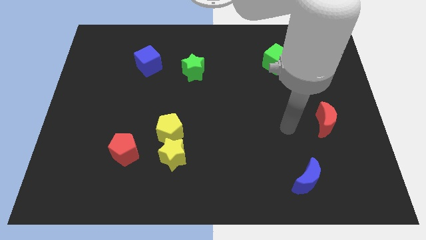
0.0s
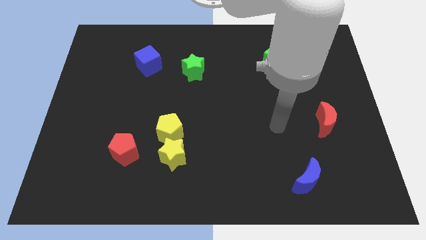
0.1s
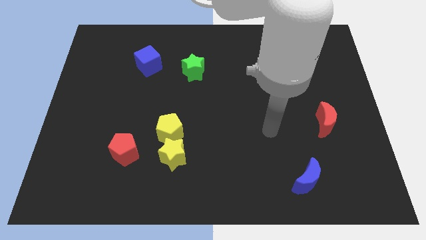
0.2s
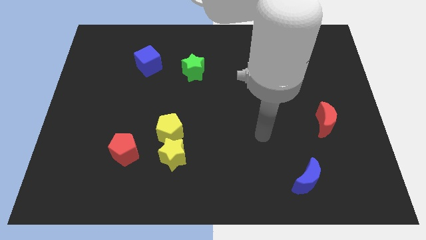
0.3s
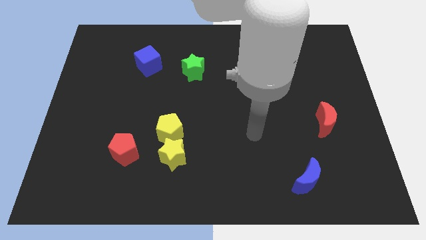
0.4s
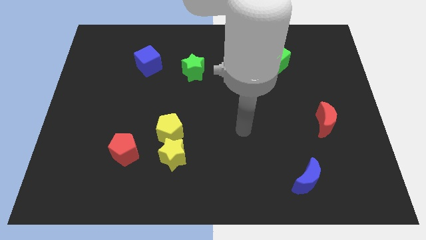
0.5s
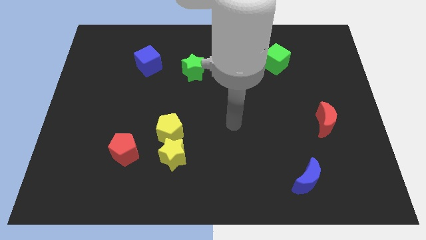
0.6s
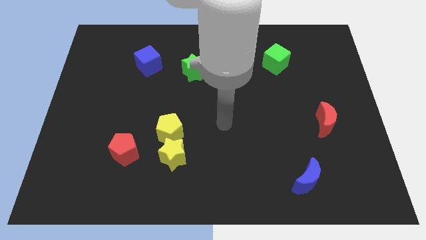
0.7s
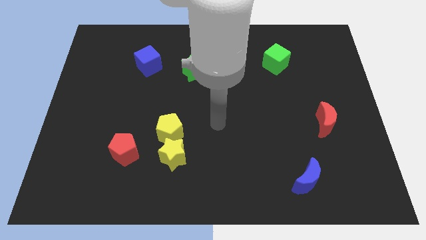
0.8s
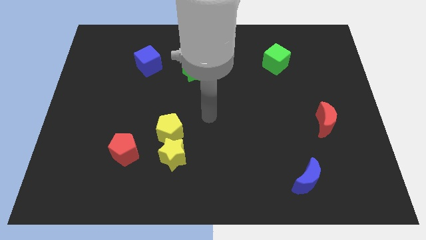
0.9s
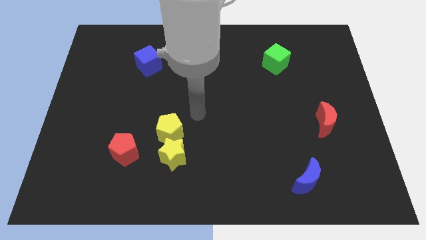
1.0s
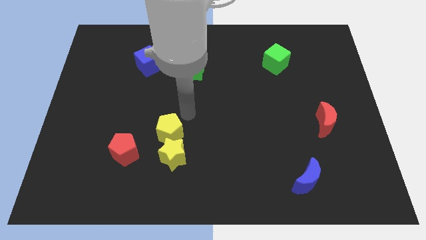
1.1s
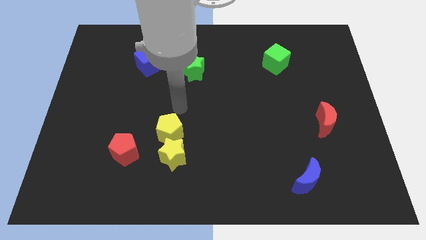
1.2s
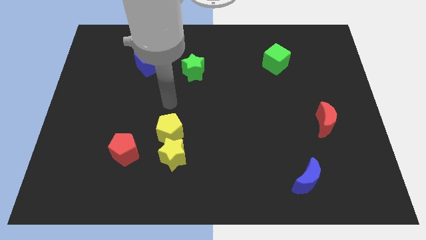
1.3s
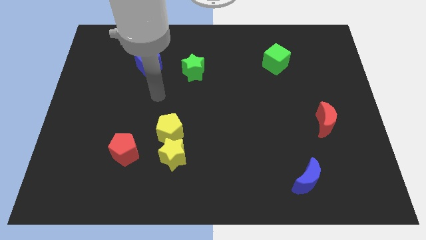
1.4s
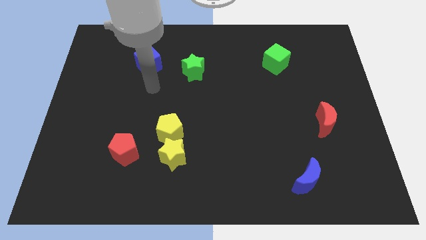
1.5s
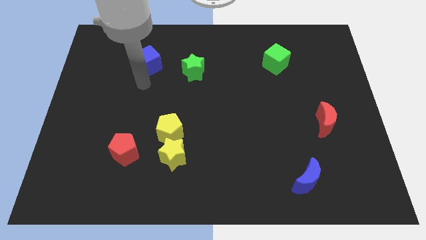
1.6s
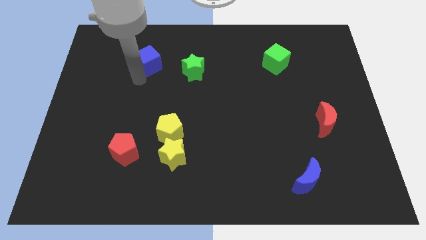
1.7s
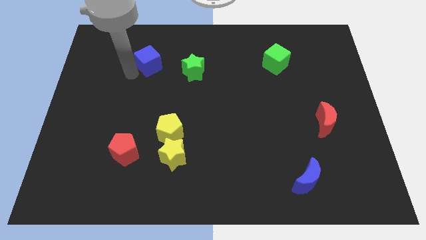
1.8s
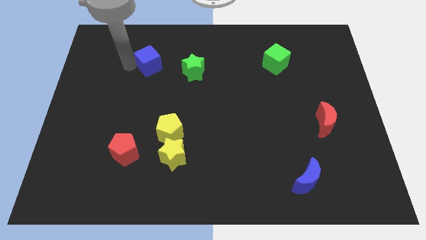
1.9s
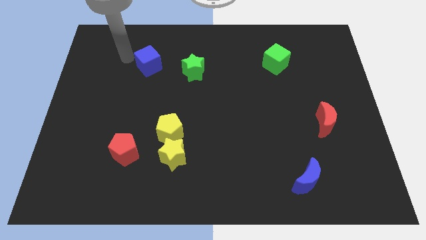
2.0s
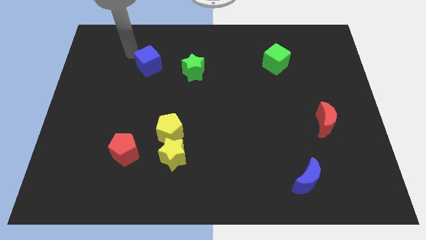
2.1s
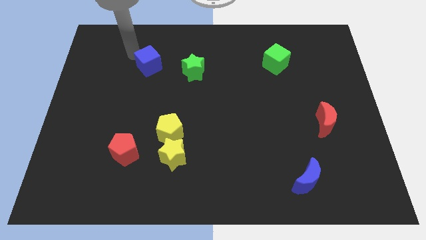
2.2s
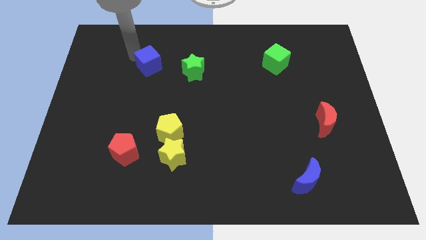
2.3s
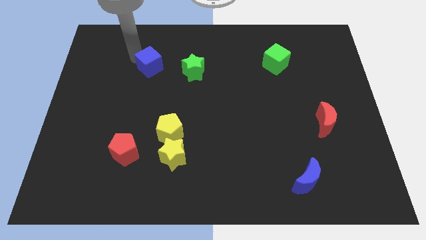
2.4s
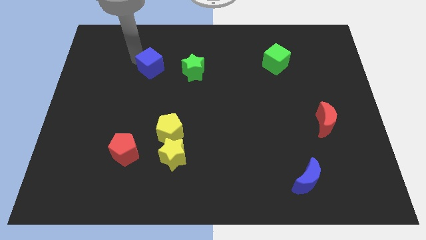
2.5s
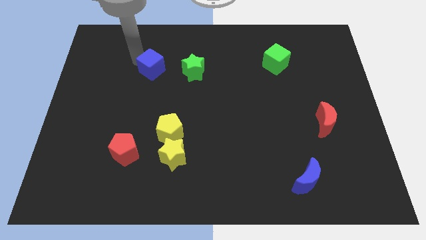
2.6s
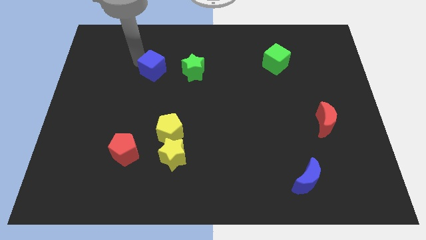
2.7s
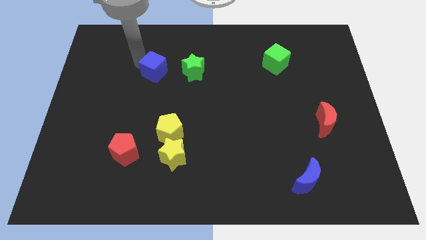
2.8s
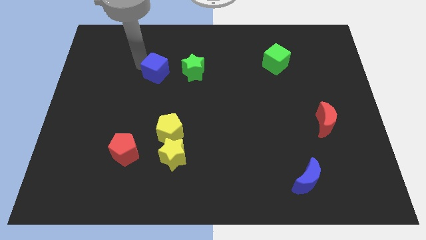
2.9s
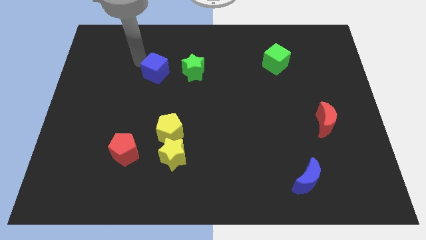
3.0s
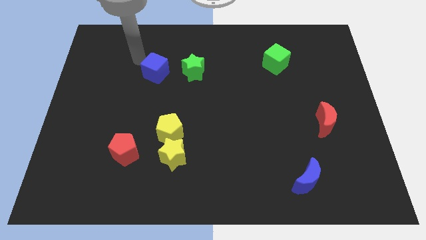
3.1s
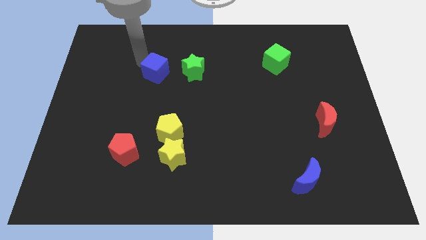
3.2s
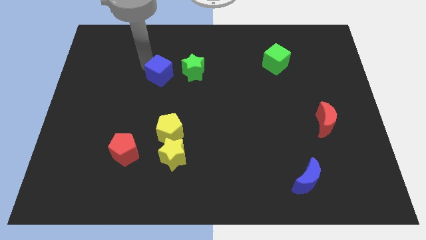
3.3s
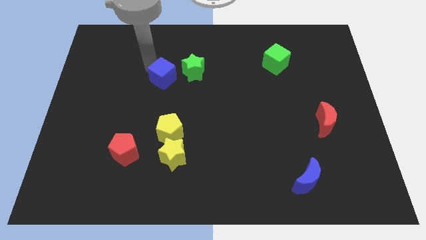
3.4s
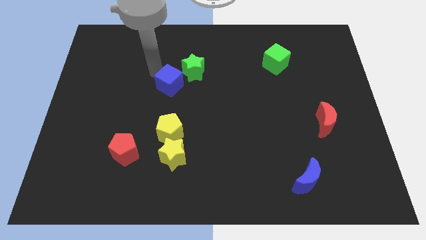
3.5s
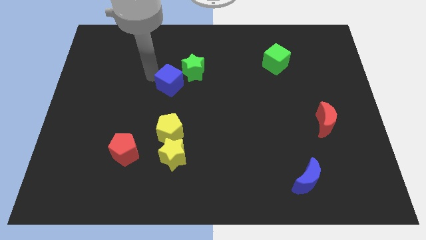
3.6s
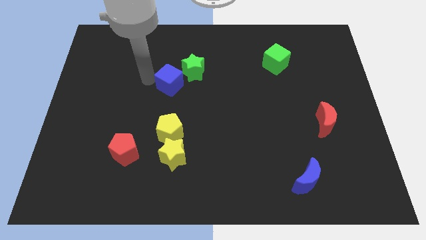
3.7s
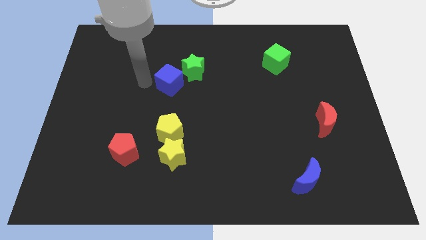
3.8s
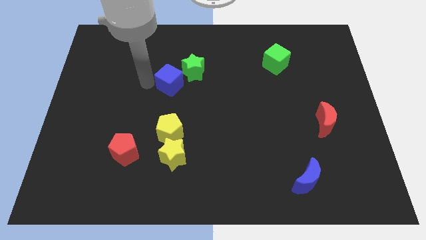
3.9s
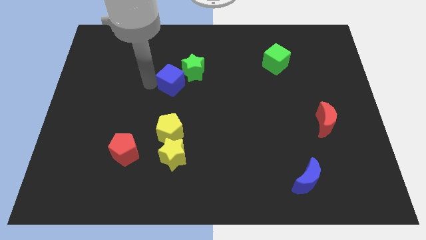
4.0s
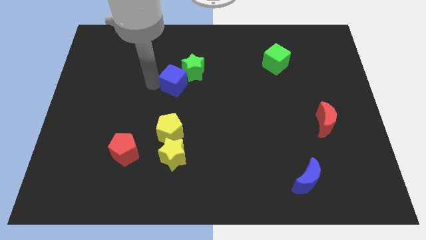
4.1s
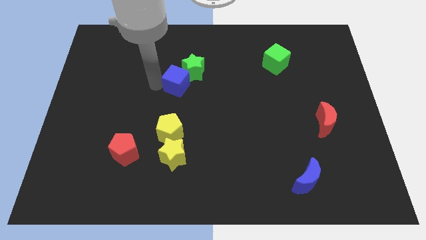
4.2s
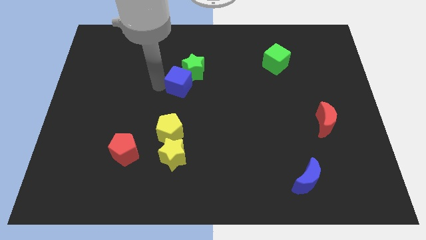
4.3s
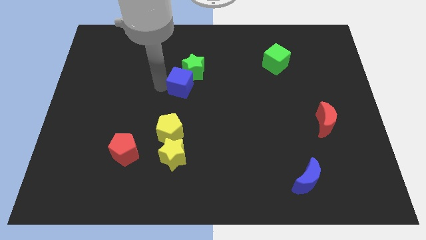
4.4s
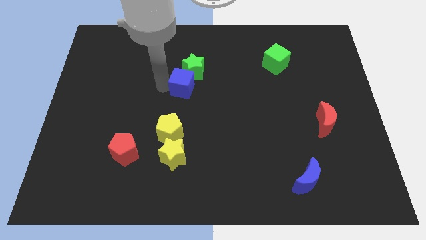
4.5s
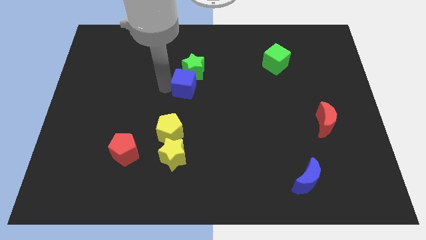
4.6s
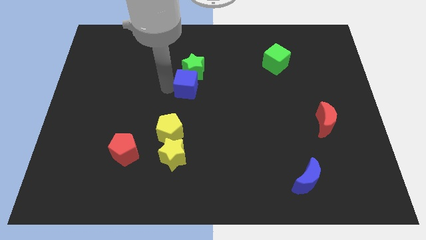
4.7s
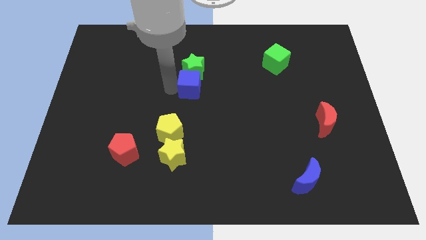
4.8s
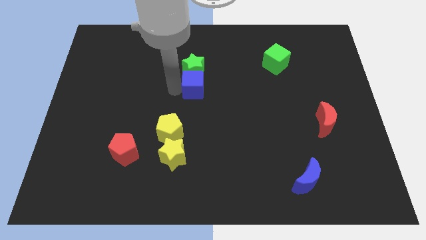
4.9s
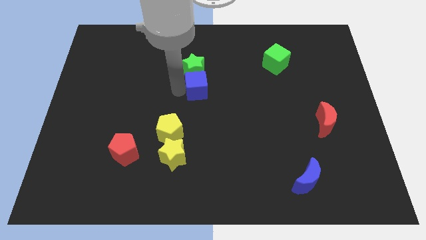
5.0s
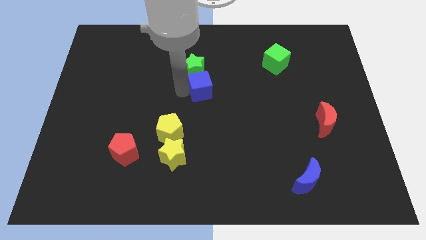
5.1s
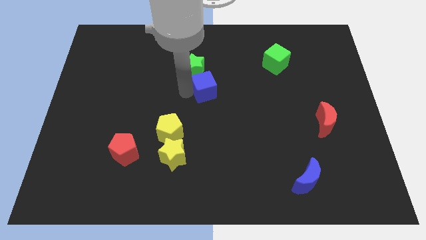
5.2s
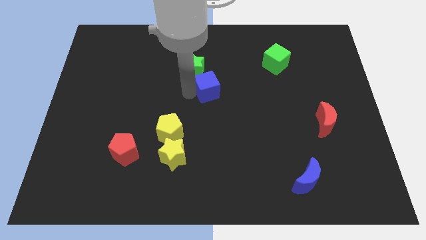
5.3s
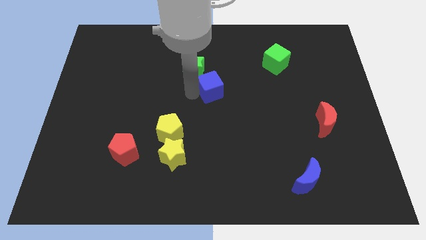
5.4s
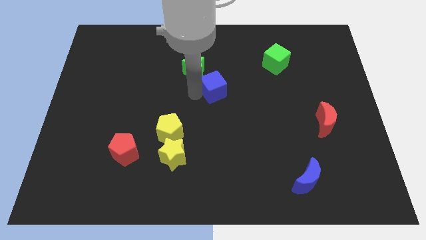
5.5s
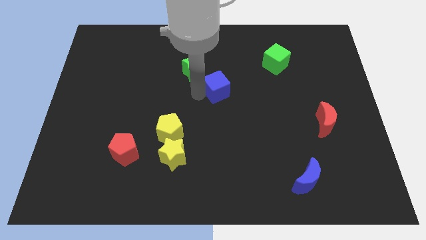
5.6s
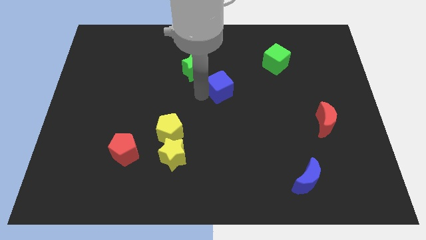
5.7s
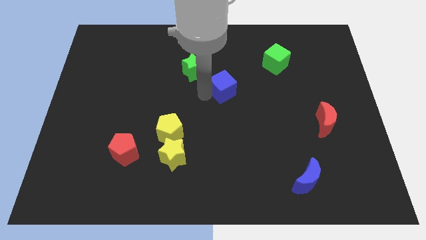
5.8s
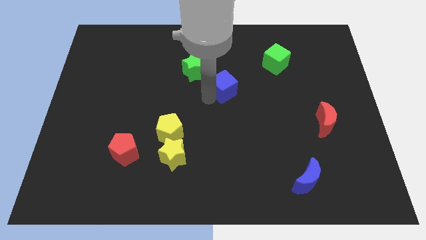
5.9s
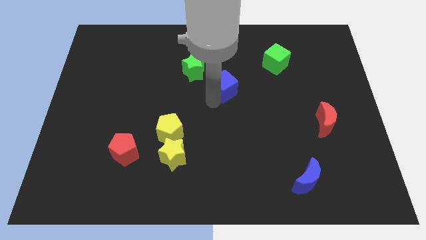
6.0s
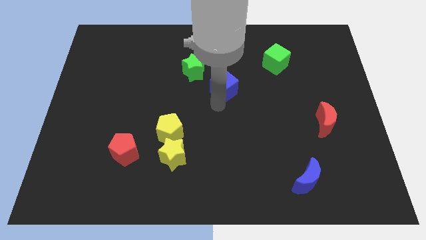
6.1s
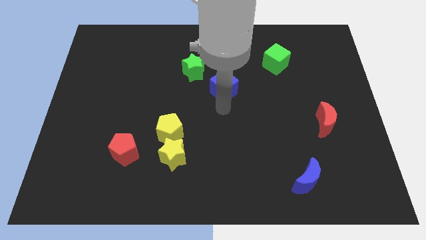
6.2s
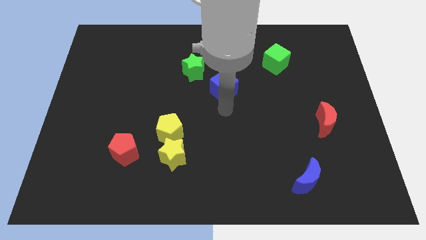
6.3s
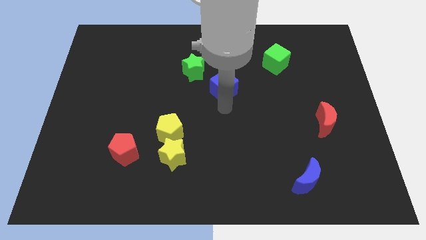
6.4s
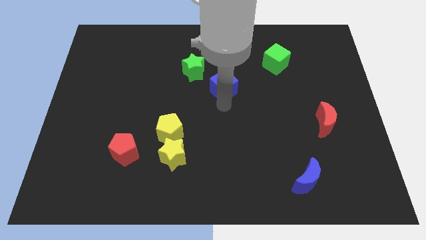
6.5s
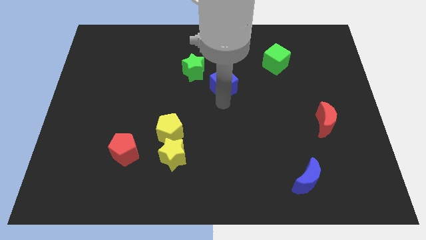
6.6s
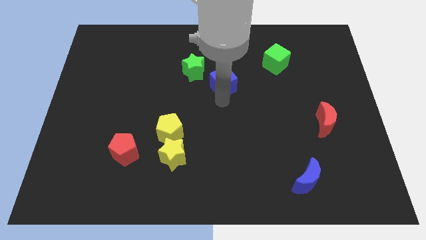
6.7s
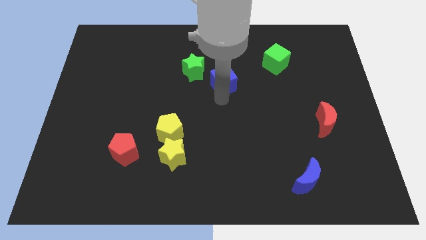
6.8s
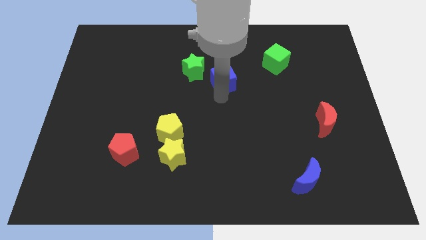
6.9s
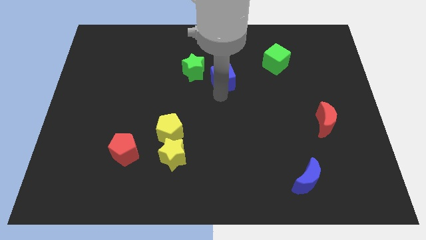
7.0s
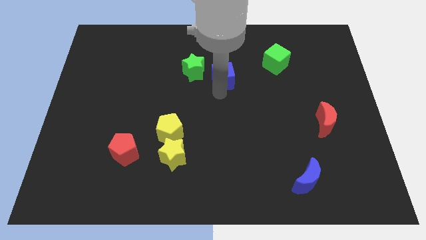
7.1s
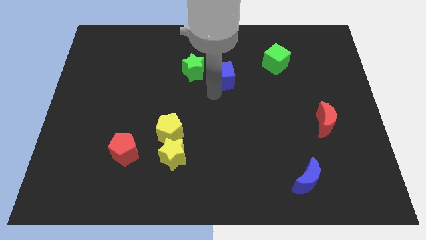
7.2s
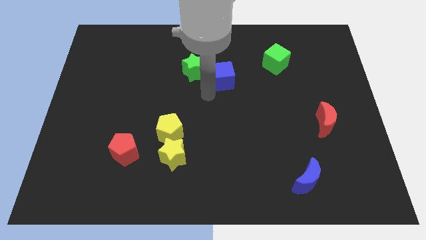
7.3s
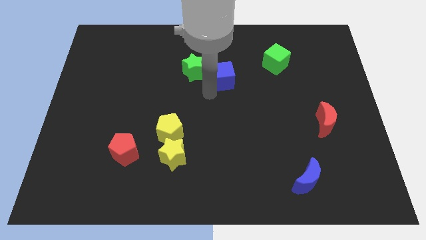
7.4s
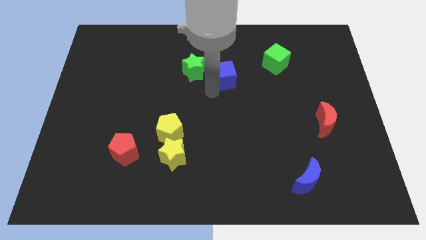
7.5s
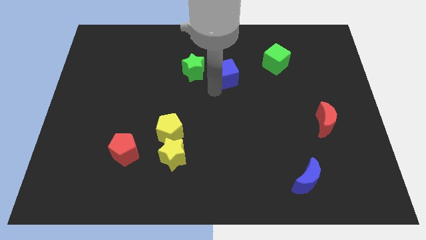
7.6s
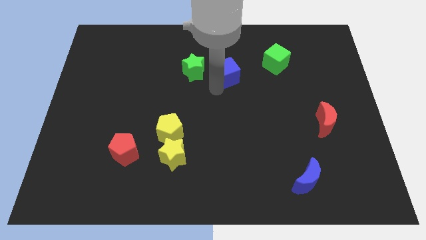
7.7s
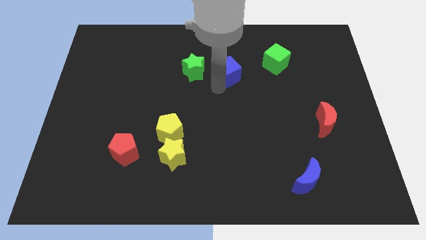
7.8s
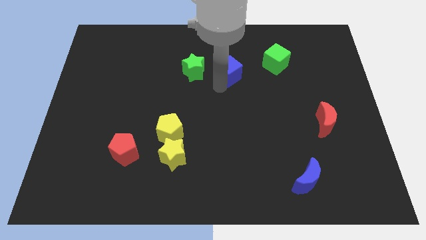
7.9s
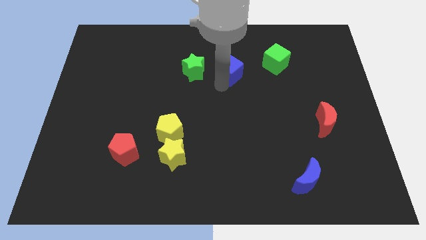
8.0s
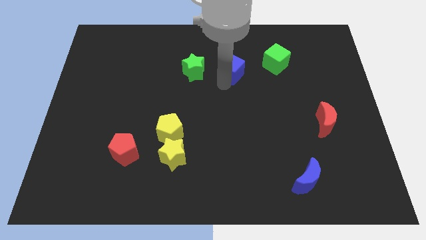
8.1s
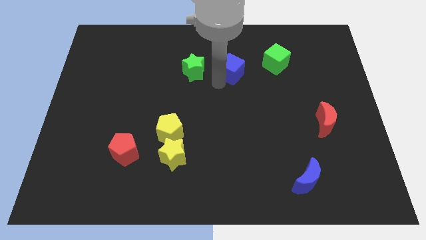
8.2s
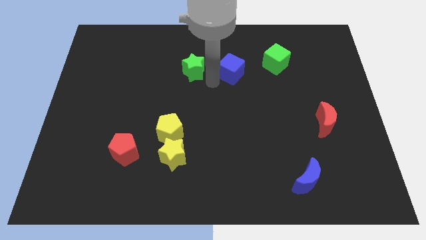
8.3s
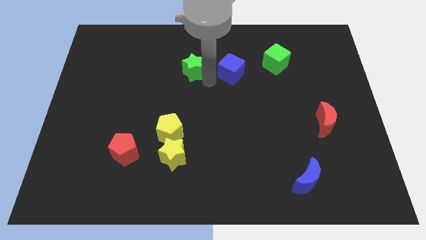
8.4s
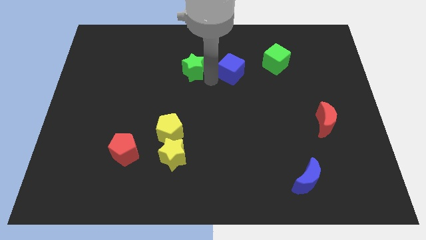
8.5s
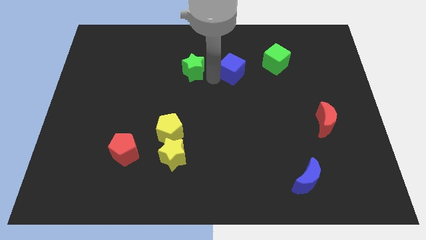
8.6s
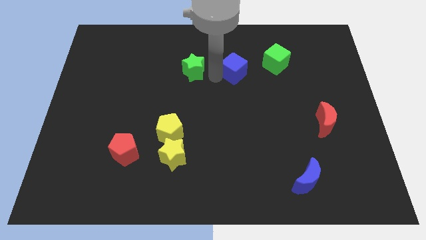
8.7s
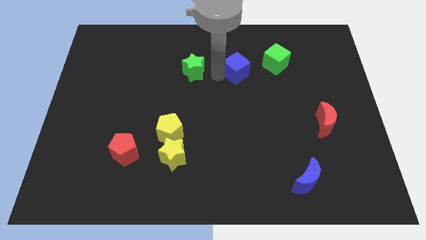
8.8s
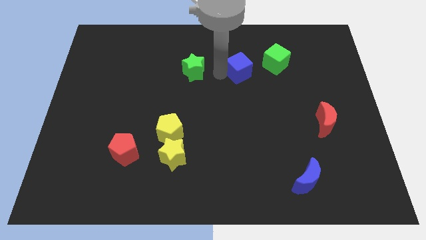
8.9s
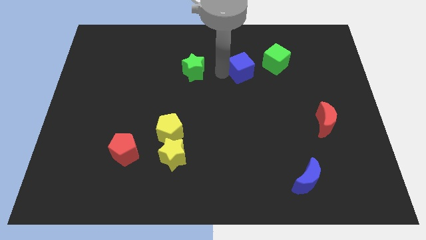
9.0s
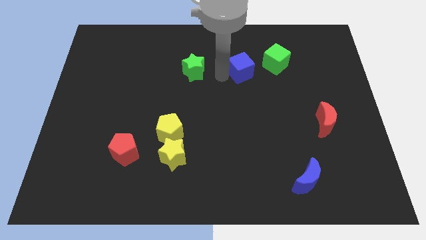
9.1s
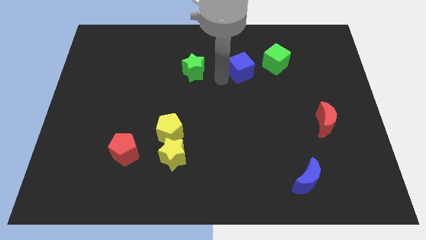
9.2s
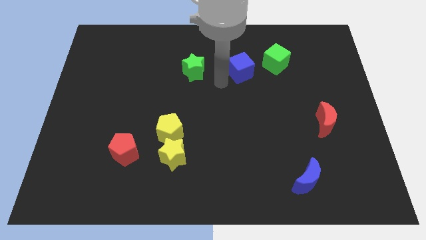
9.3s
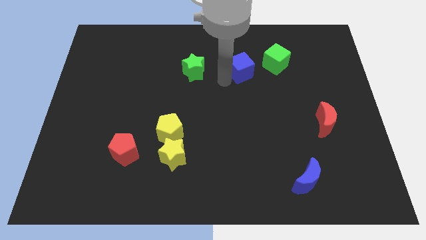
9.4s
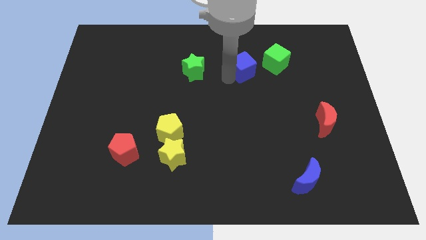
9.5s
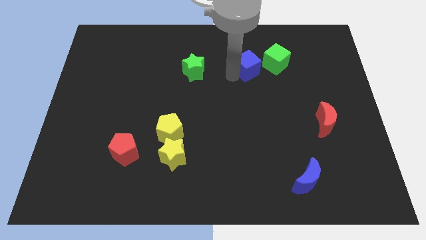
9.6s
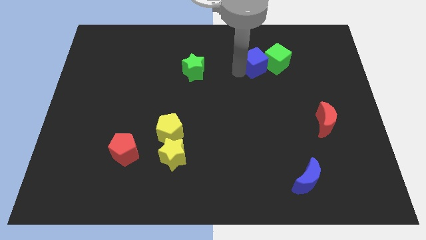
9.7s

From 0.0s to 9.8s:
push the blue cube close to the green cube
